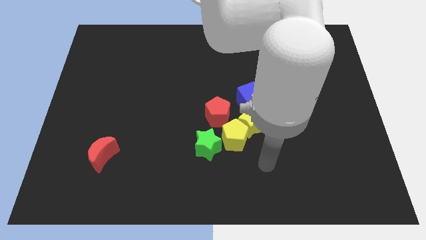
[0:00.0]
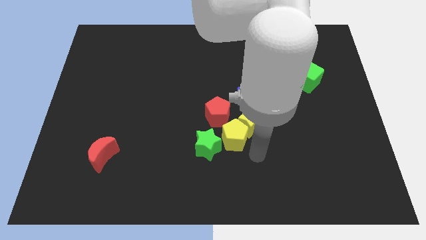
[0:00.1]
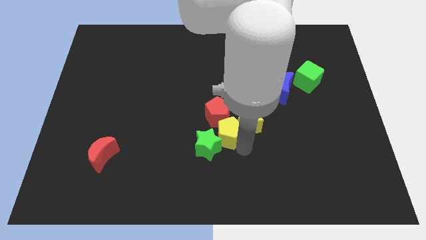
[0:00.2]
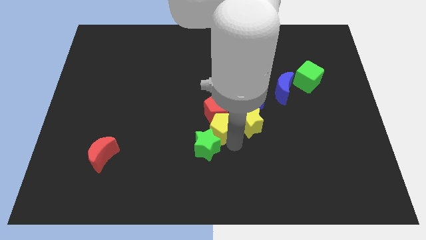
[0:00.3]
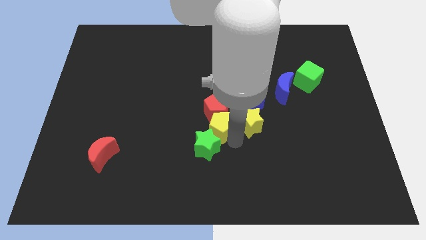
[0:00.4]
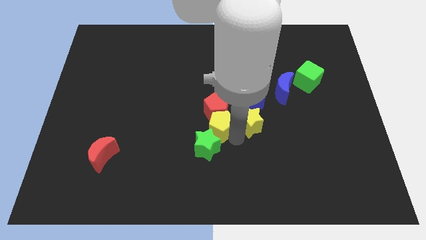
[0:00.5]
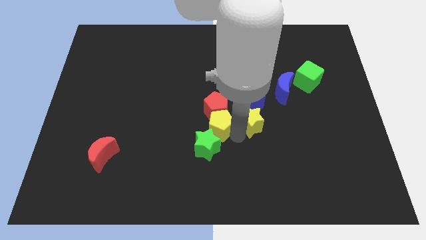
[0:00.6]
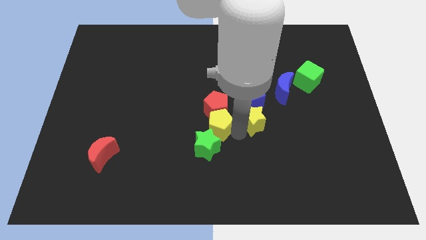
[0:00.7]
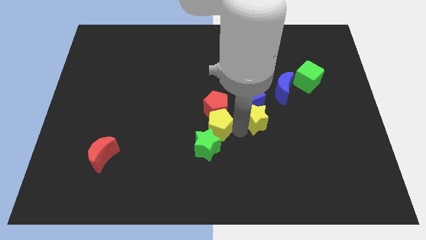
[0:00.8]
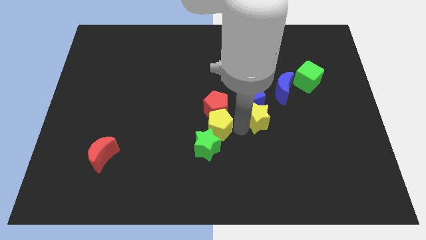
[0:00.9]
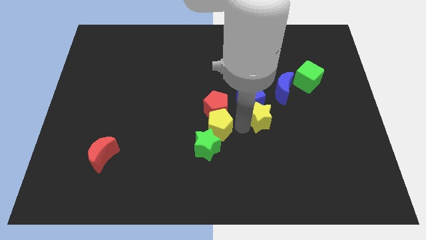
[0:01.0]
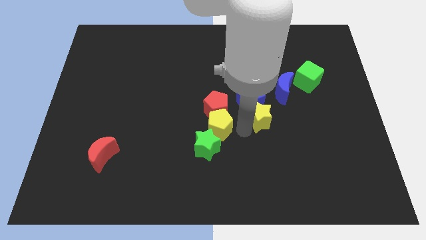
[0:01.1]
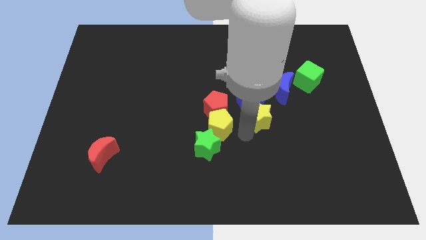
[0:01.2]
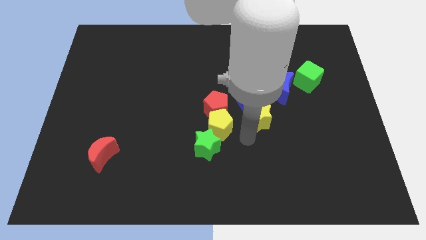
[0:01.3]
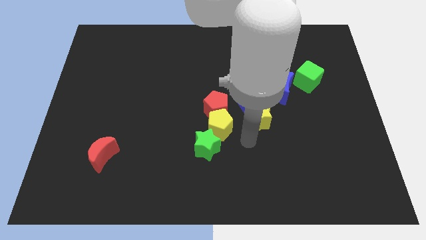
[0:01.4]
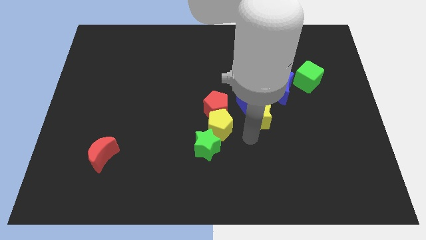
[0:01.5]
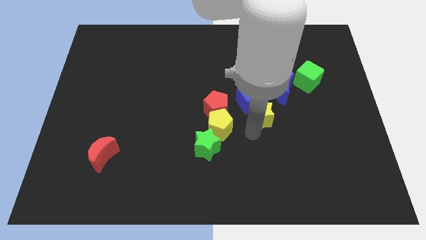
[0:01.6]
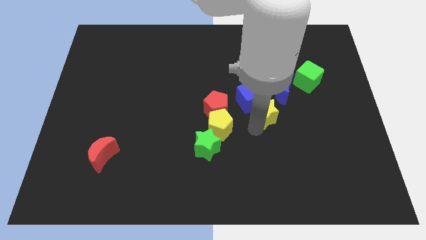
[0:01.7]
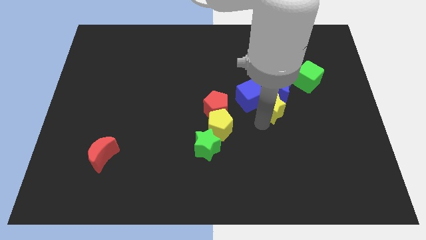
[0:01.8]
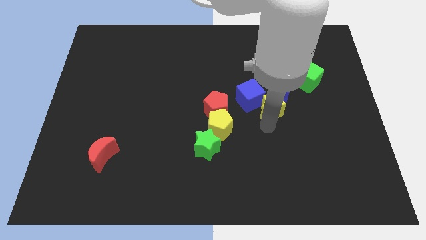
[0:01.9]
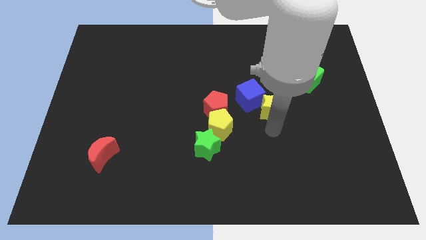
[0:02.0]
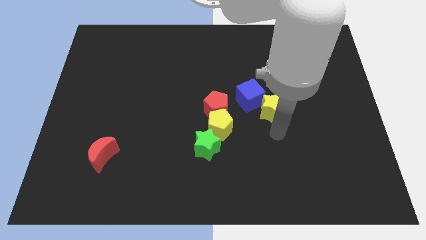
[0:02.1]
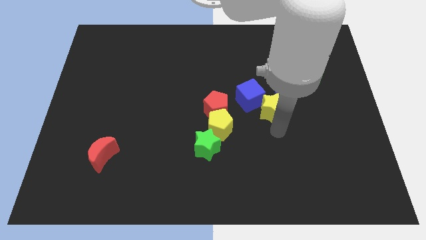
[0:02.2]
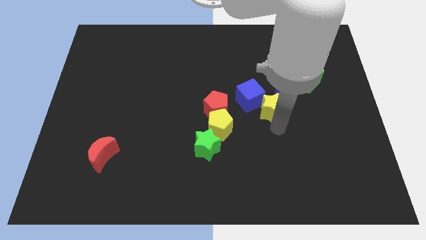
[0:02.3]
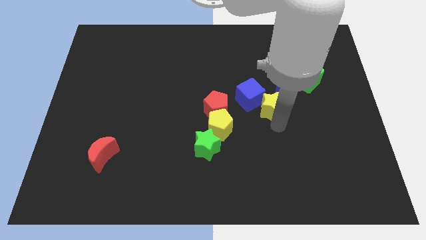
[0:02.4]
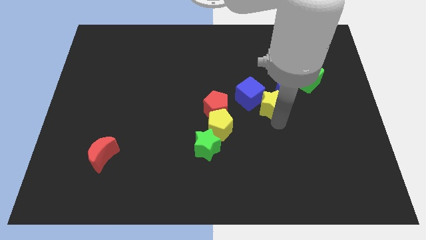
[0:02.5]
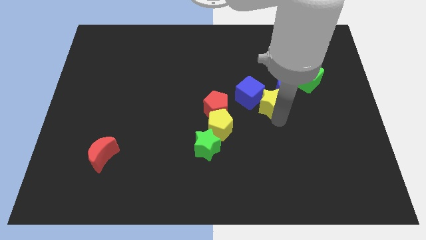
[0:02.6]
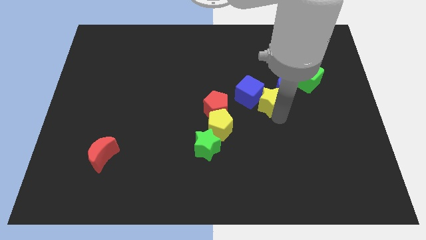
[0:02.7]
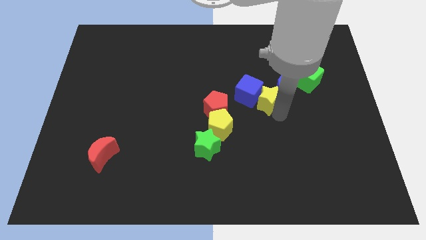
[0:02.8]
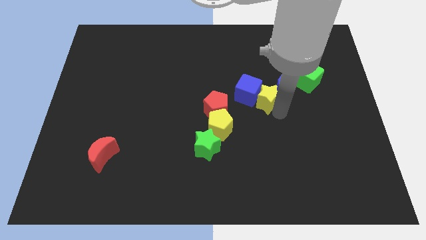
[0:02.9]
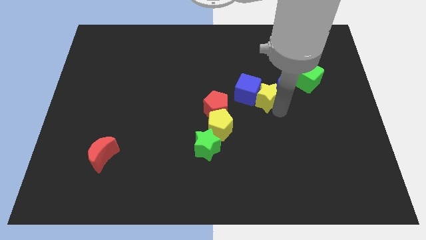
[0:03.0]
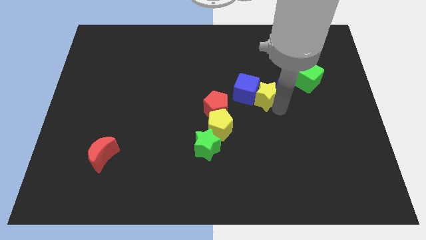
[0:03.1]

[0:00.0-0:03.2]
slide the yellow star upwards a little bit

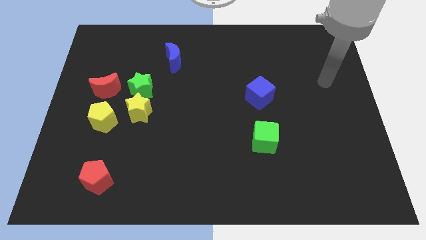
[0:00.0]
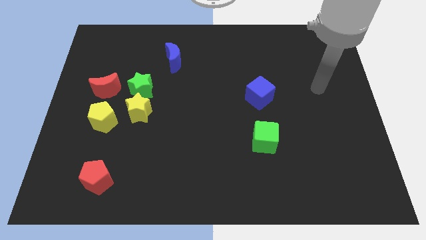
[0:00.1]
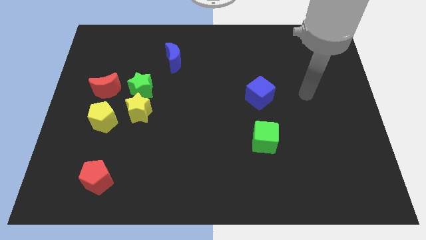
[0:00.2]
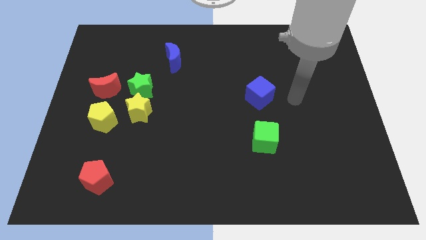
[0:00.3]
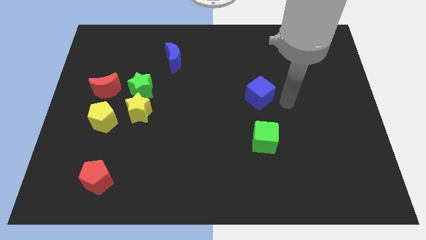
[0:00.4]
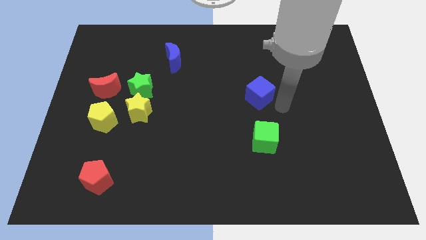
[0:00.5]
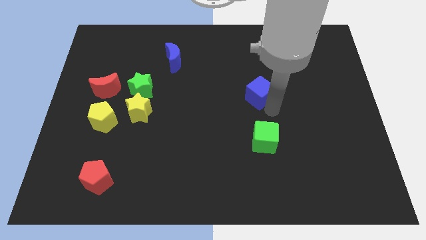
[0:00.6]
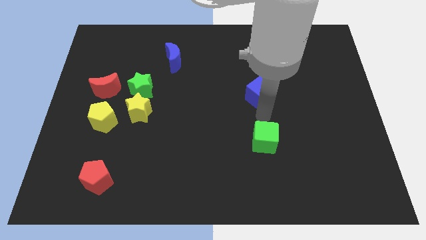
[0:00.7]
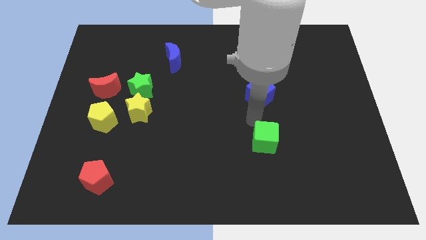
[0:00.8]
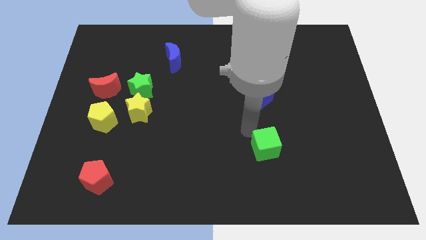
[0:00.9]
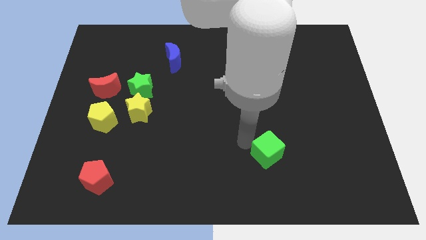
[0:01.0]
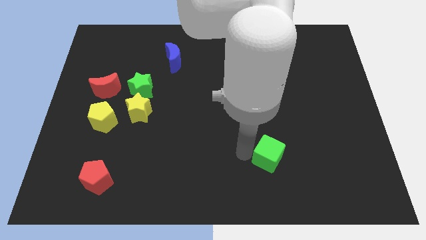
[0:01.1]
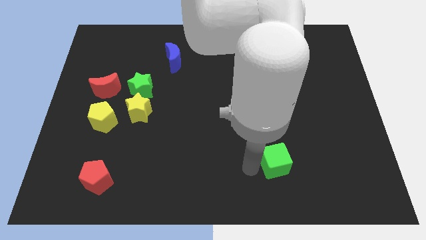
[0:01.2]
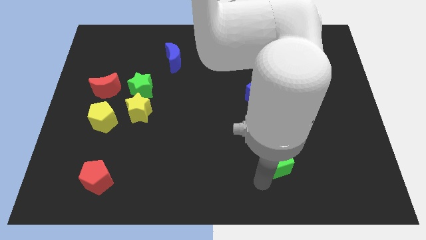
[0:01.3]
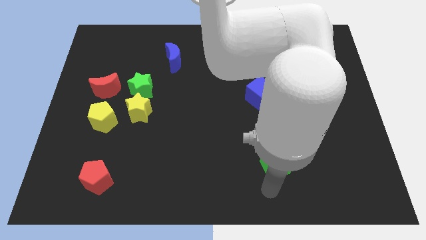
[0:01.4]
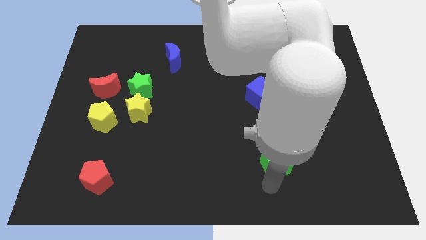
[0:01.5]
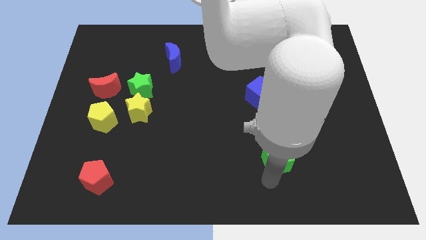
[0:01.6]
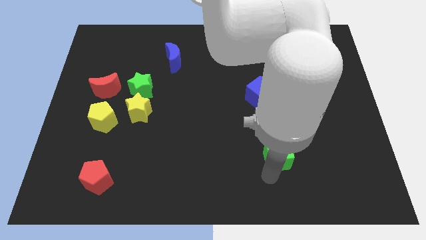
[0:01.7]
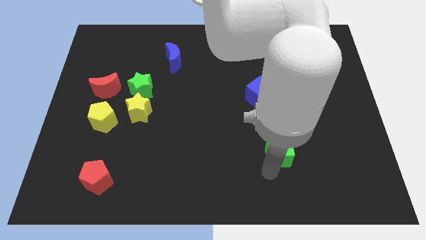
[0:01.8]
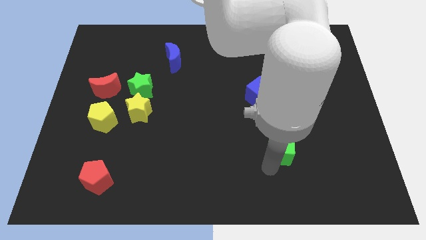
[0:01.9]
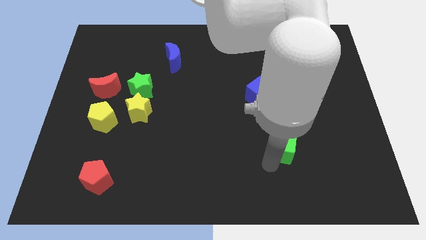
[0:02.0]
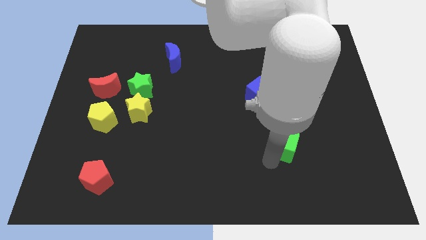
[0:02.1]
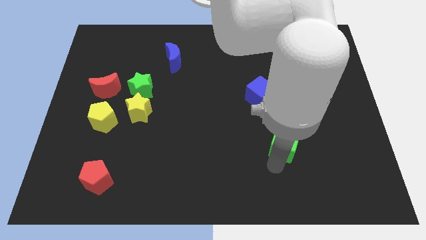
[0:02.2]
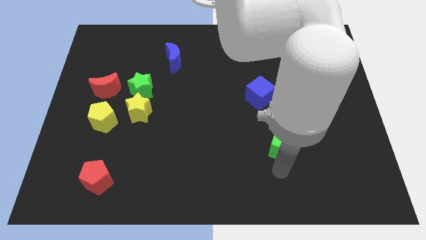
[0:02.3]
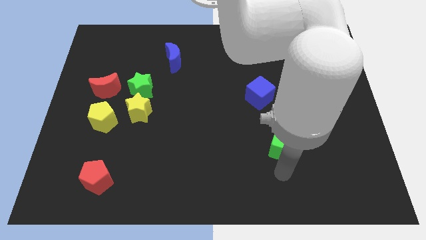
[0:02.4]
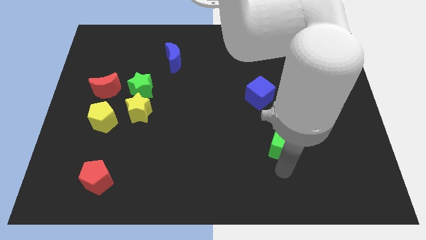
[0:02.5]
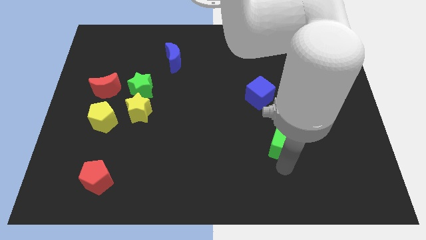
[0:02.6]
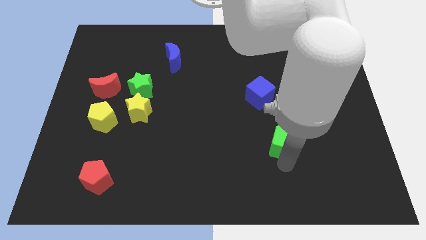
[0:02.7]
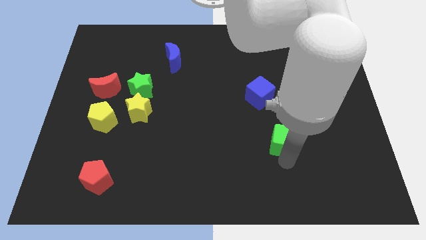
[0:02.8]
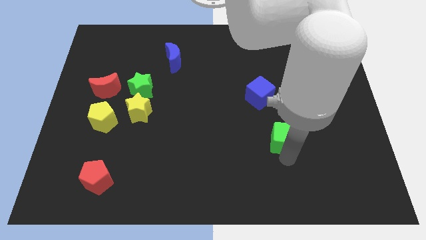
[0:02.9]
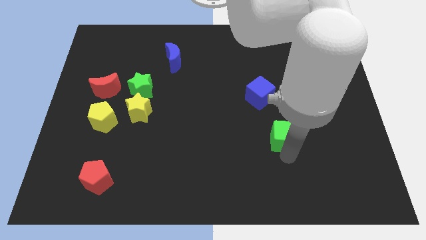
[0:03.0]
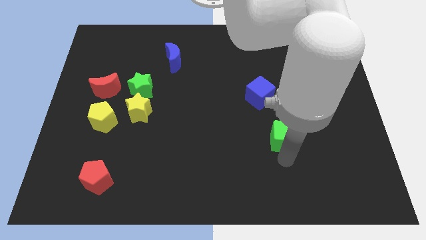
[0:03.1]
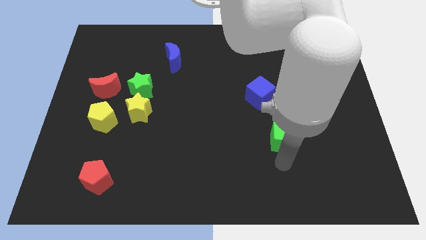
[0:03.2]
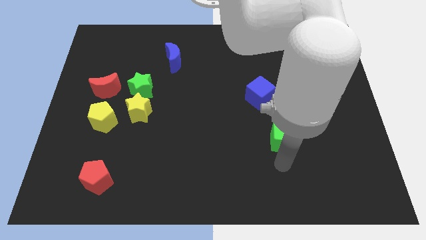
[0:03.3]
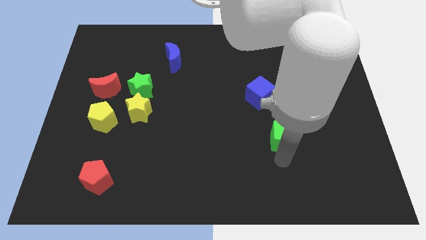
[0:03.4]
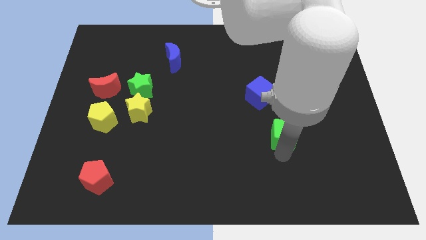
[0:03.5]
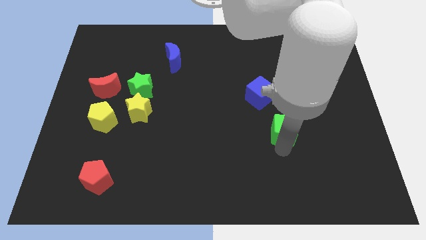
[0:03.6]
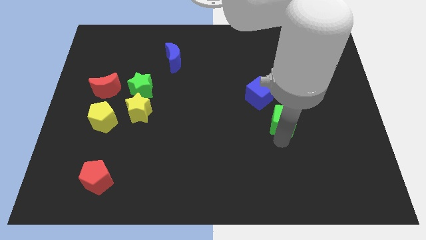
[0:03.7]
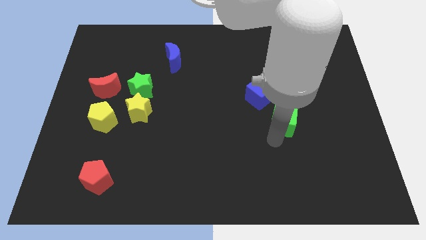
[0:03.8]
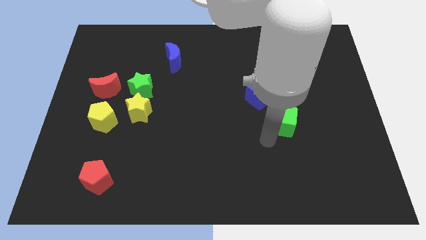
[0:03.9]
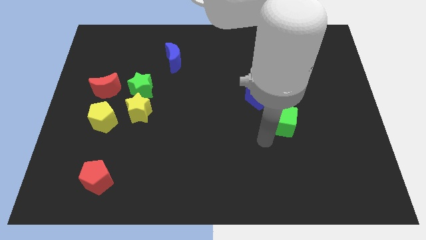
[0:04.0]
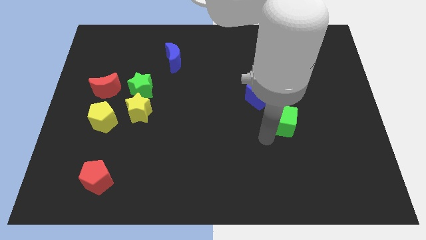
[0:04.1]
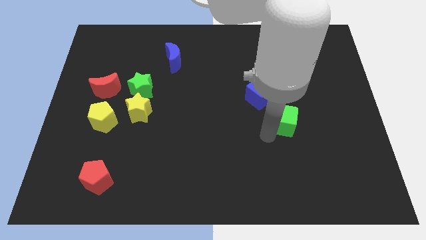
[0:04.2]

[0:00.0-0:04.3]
slightly move the green cube up and then right

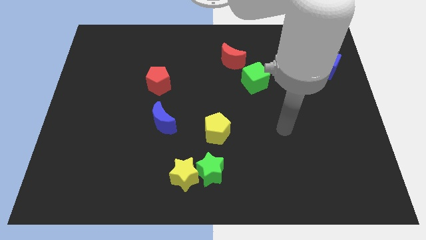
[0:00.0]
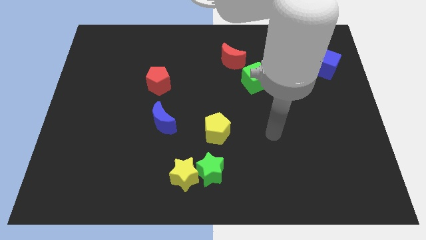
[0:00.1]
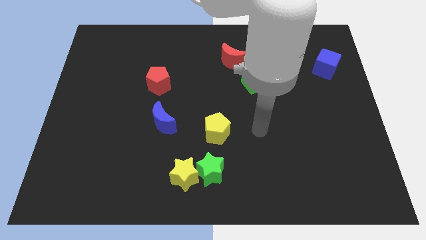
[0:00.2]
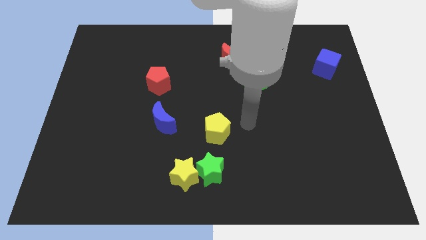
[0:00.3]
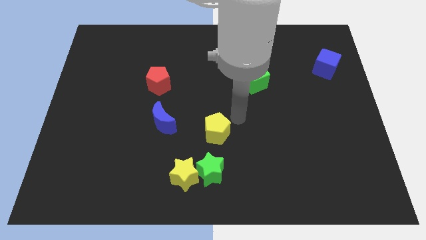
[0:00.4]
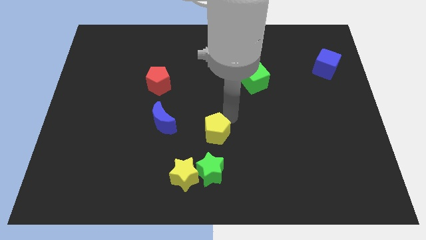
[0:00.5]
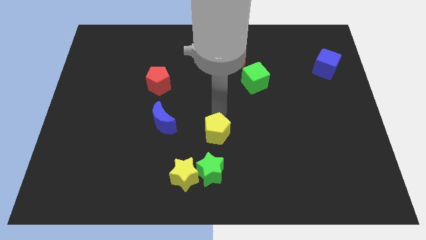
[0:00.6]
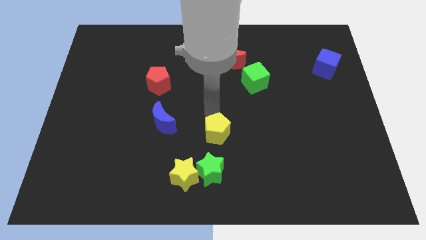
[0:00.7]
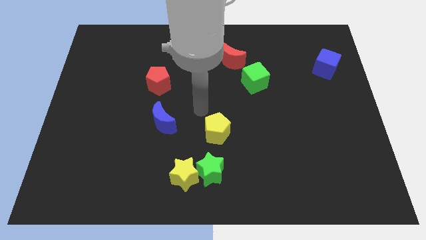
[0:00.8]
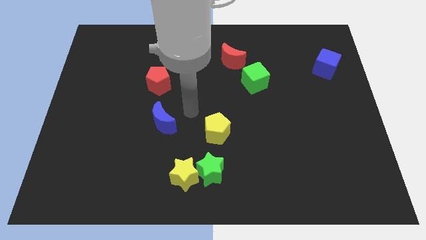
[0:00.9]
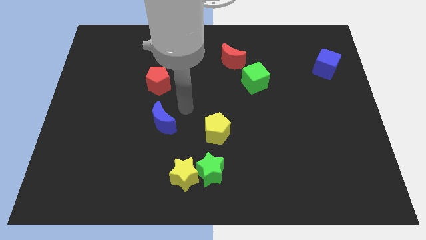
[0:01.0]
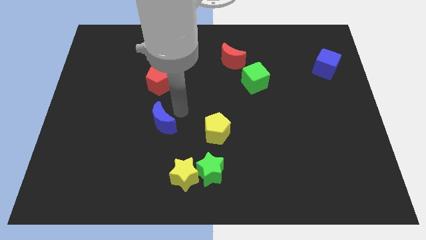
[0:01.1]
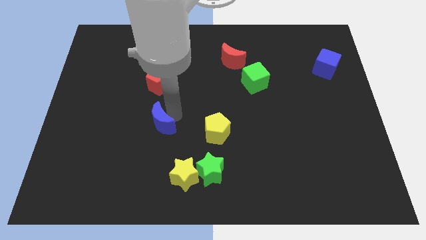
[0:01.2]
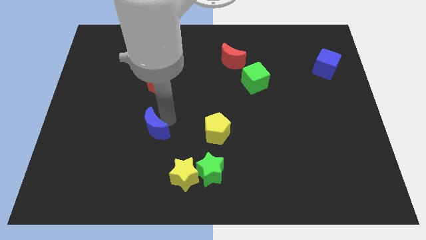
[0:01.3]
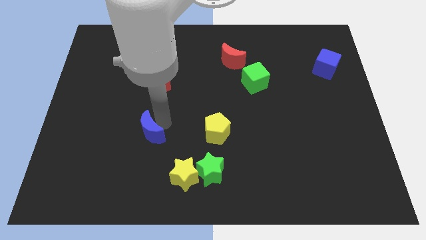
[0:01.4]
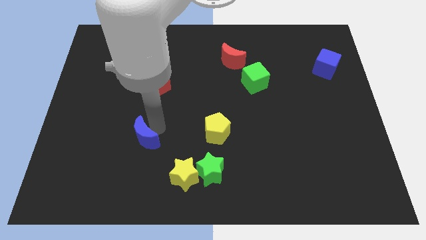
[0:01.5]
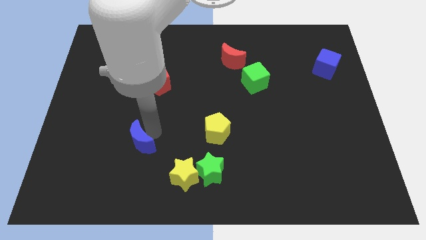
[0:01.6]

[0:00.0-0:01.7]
move the blue moon a bit down and left diagonally
